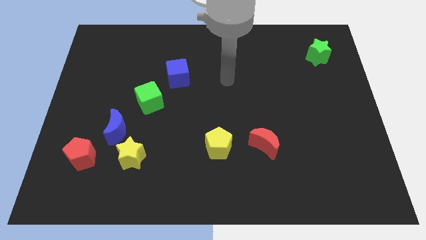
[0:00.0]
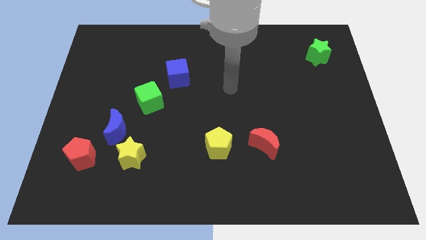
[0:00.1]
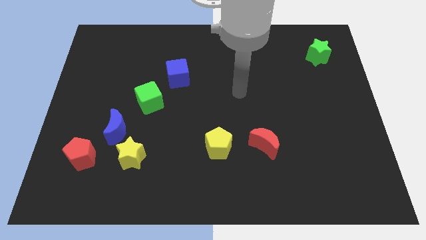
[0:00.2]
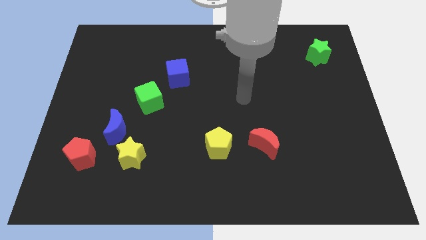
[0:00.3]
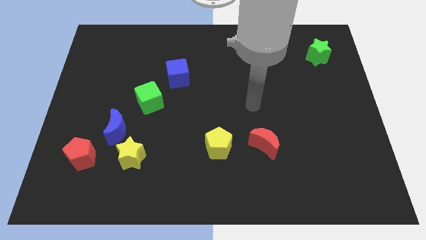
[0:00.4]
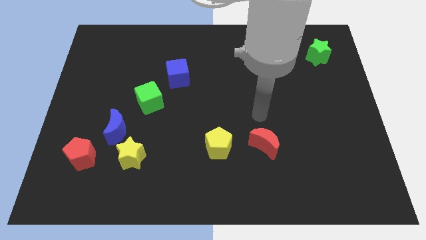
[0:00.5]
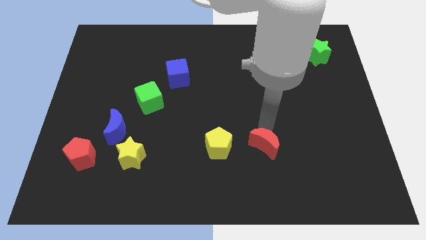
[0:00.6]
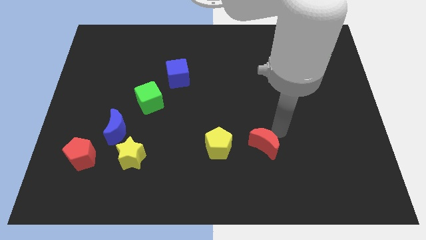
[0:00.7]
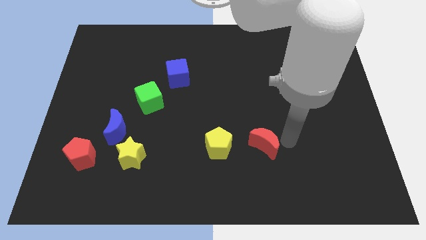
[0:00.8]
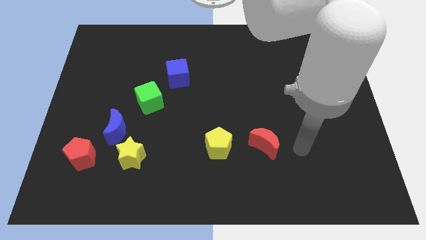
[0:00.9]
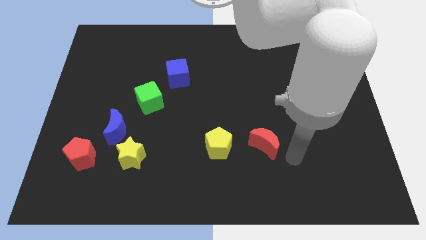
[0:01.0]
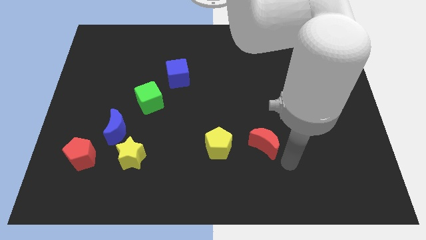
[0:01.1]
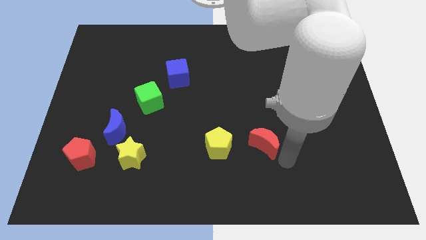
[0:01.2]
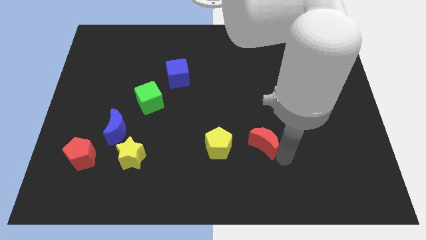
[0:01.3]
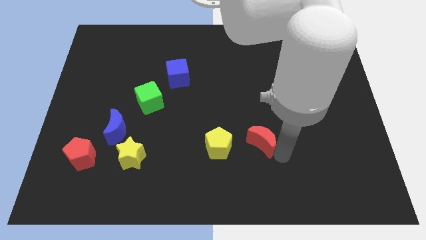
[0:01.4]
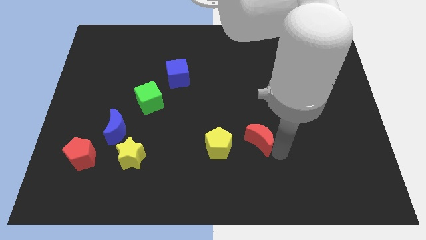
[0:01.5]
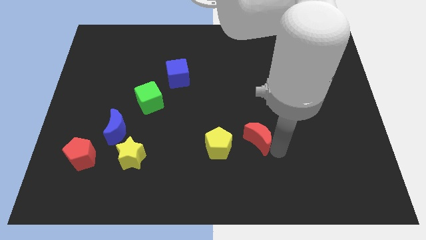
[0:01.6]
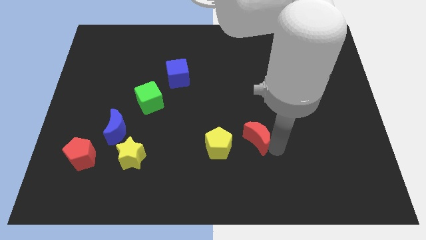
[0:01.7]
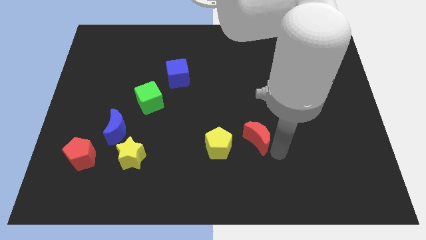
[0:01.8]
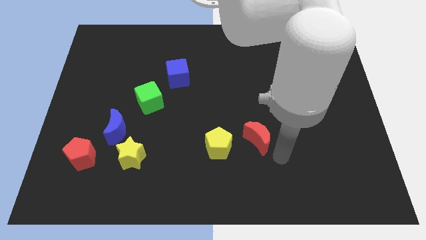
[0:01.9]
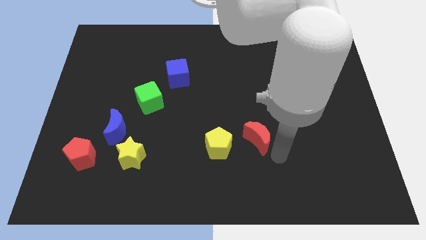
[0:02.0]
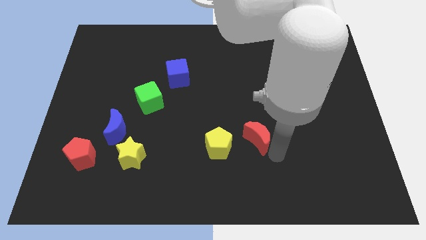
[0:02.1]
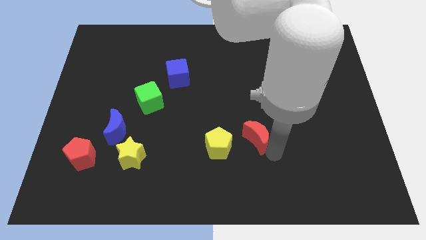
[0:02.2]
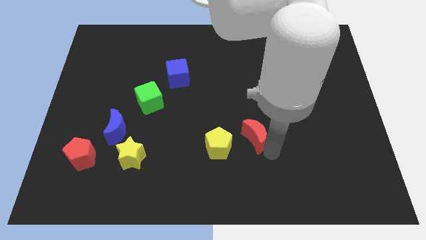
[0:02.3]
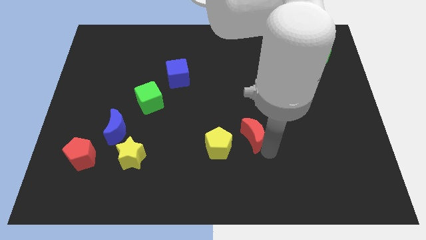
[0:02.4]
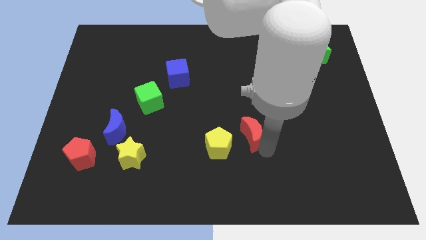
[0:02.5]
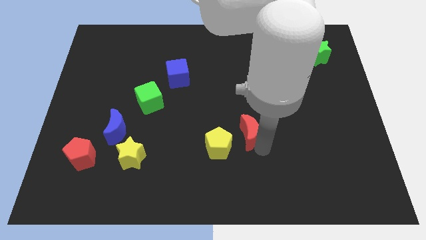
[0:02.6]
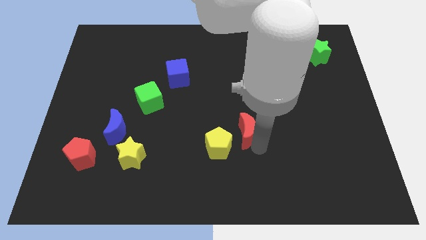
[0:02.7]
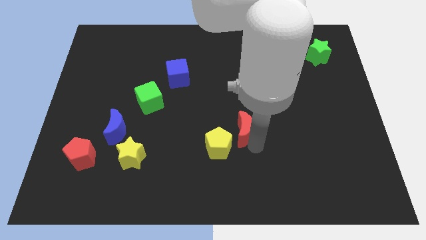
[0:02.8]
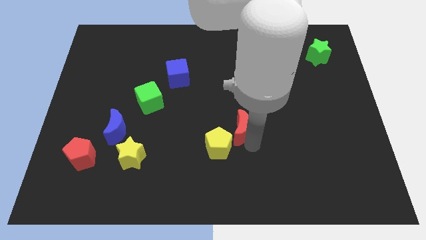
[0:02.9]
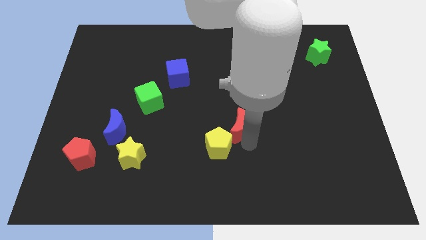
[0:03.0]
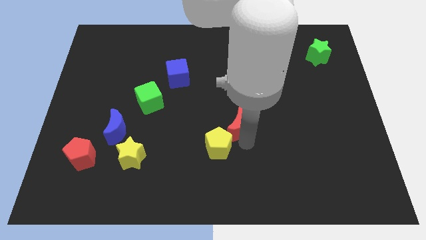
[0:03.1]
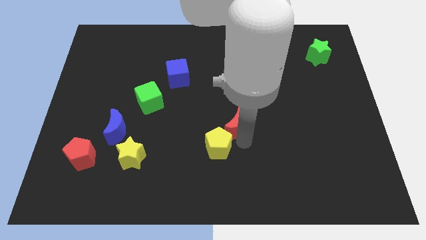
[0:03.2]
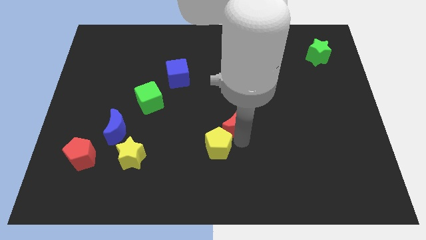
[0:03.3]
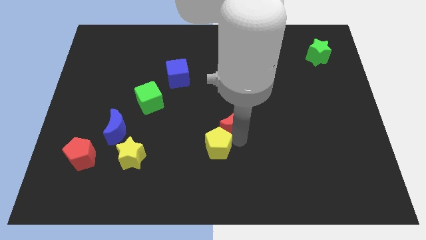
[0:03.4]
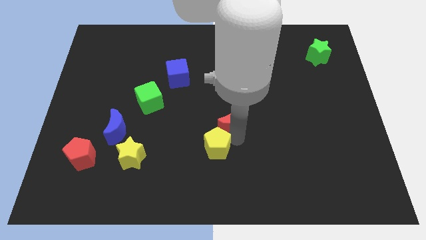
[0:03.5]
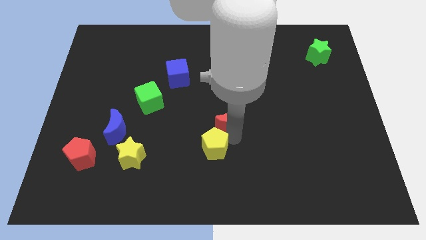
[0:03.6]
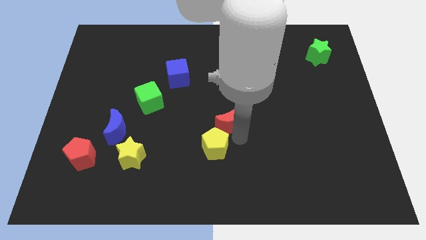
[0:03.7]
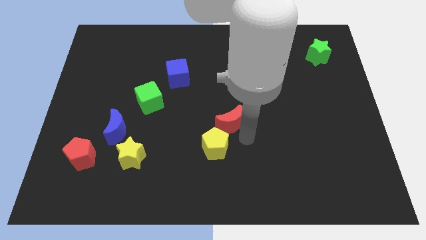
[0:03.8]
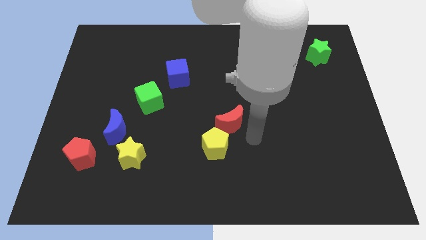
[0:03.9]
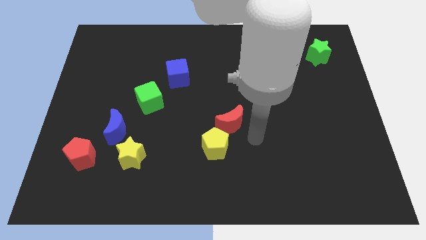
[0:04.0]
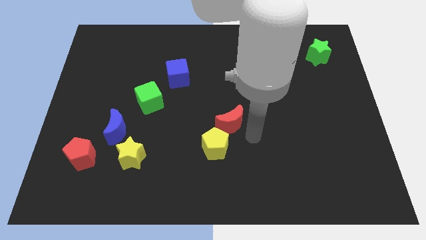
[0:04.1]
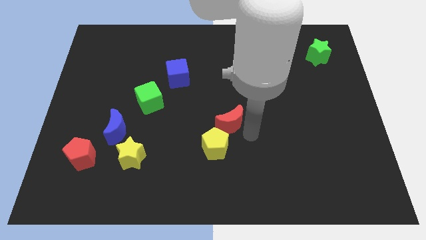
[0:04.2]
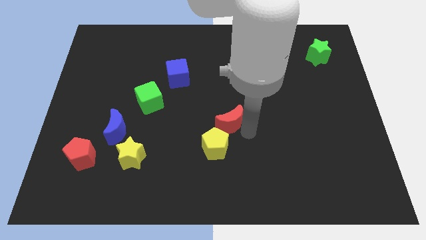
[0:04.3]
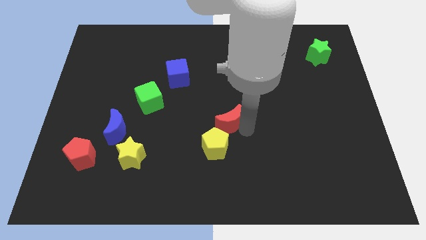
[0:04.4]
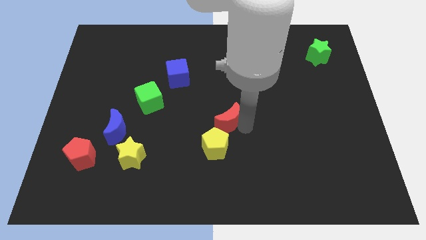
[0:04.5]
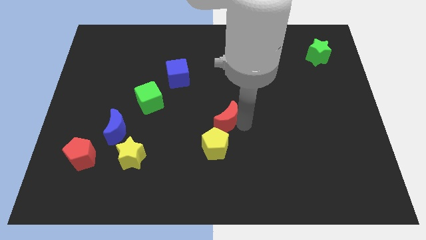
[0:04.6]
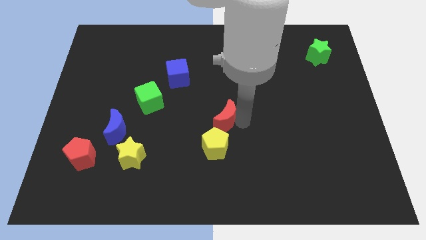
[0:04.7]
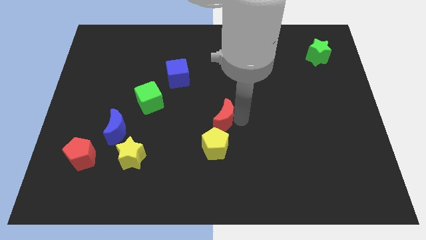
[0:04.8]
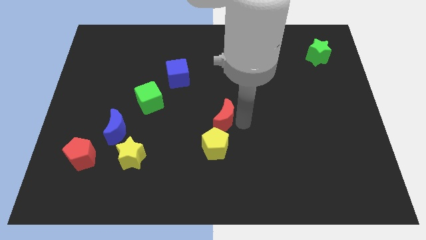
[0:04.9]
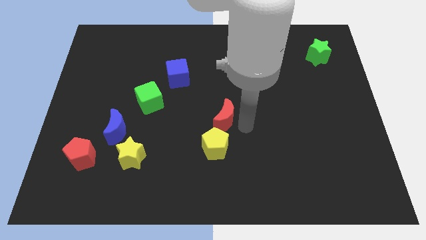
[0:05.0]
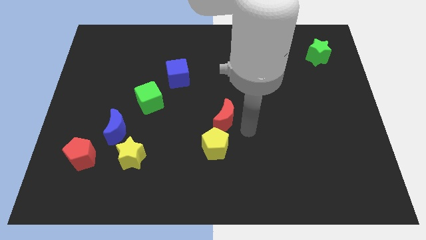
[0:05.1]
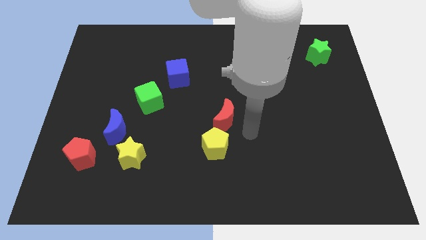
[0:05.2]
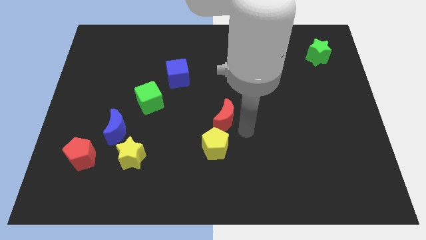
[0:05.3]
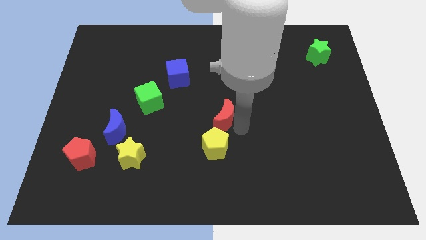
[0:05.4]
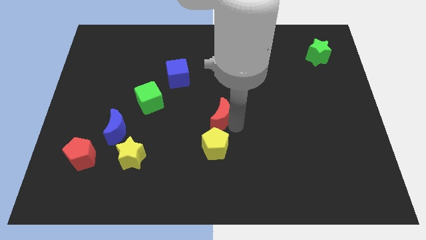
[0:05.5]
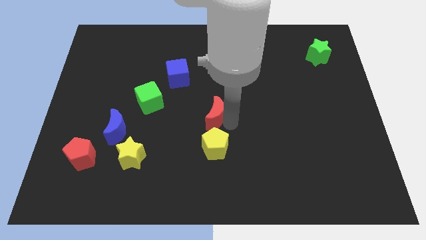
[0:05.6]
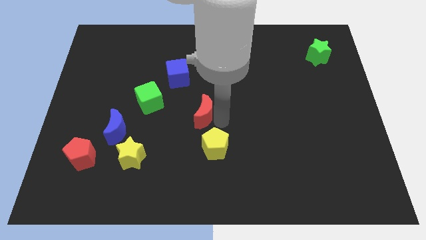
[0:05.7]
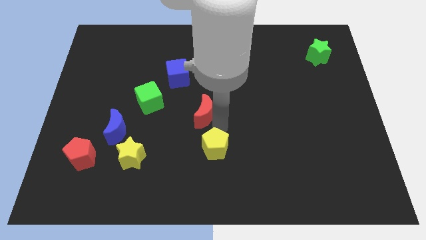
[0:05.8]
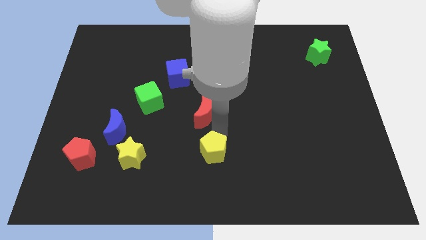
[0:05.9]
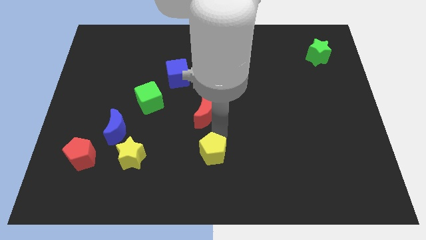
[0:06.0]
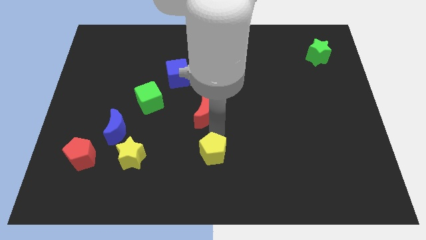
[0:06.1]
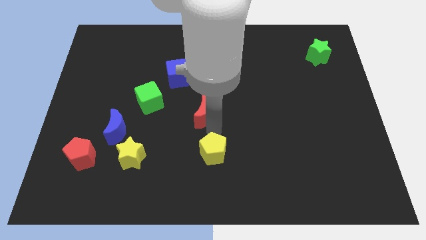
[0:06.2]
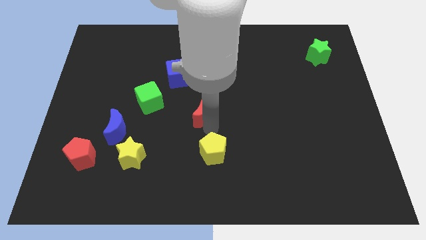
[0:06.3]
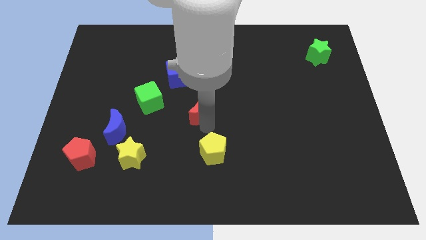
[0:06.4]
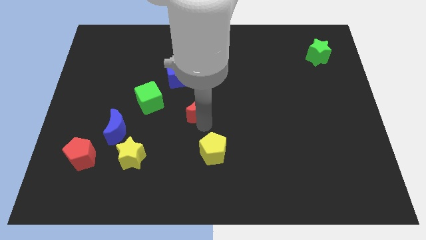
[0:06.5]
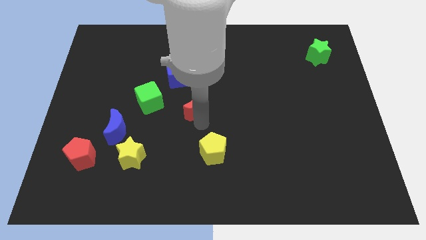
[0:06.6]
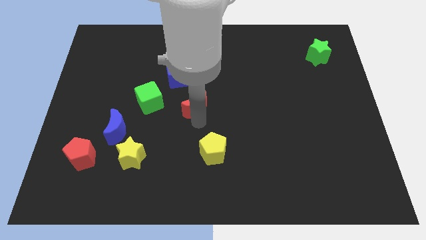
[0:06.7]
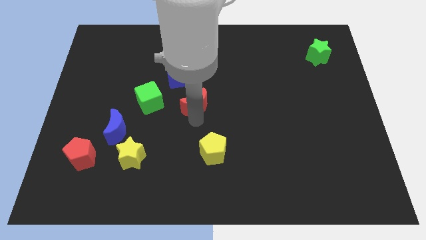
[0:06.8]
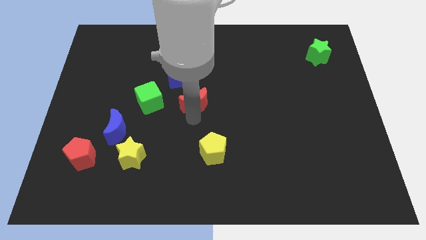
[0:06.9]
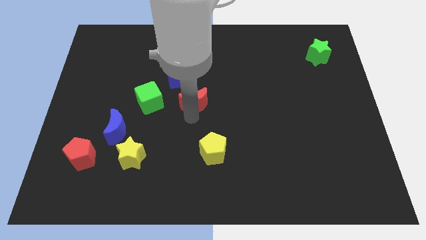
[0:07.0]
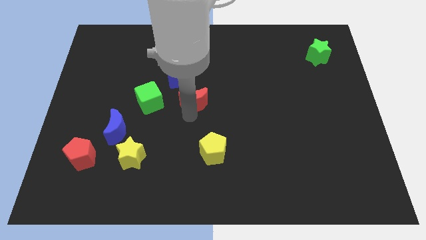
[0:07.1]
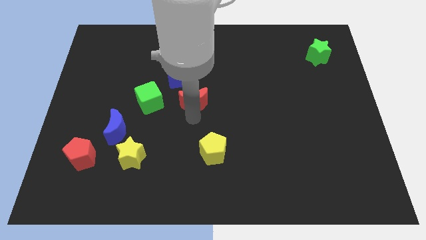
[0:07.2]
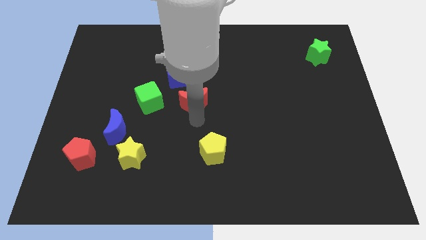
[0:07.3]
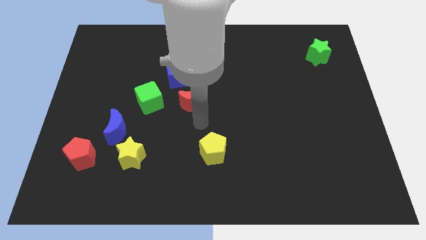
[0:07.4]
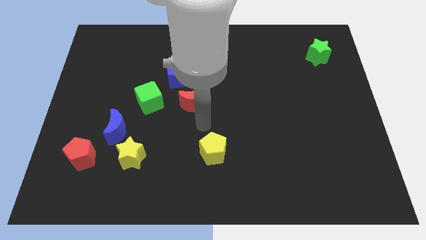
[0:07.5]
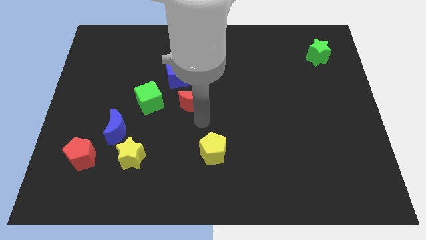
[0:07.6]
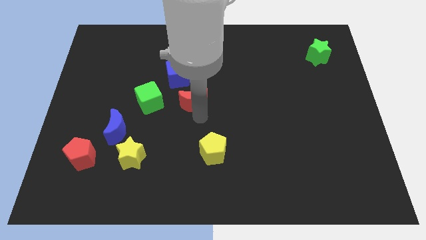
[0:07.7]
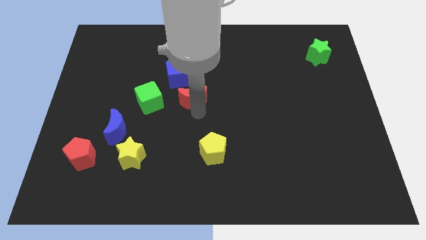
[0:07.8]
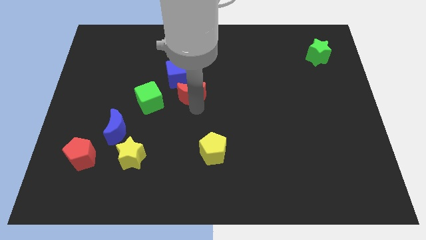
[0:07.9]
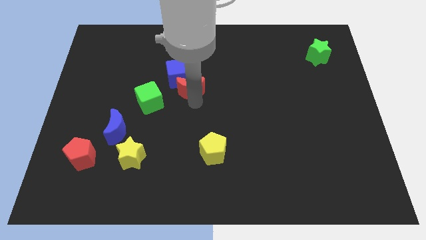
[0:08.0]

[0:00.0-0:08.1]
move the red moon next to the blue cube
